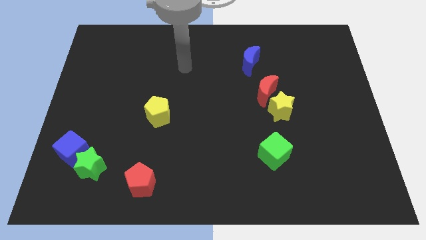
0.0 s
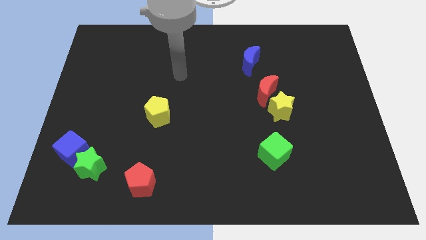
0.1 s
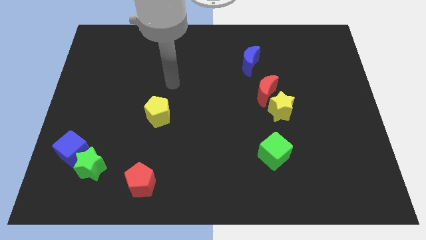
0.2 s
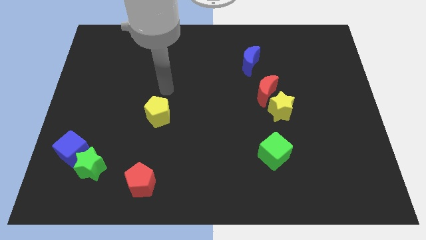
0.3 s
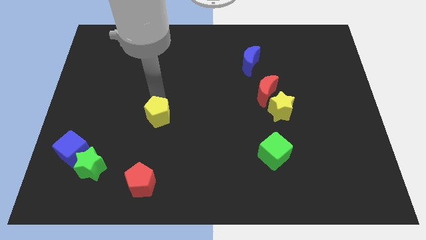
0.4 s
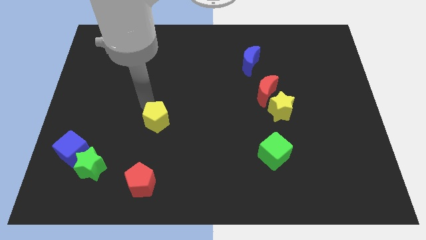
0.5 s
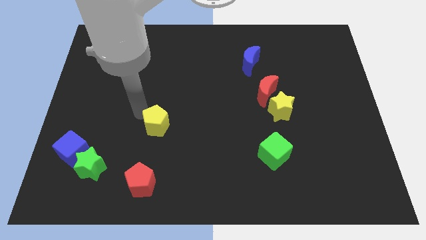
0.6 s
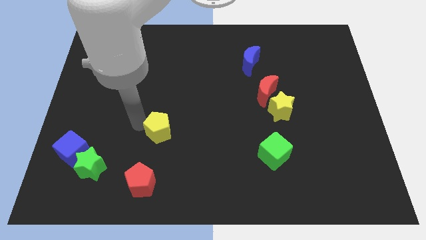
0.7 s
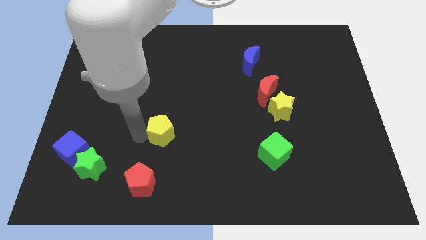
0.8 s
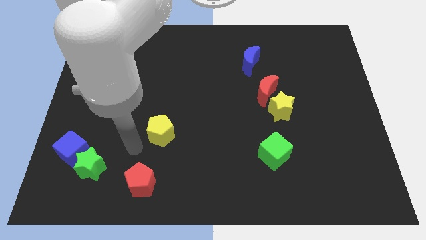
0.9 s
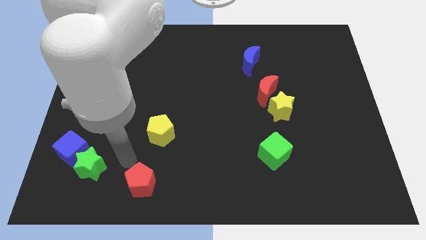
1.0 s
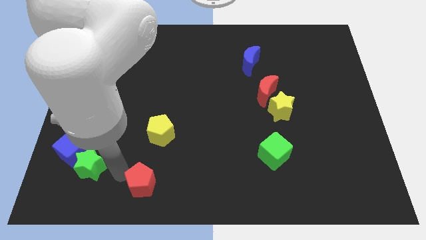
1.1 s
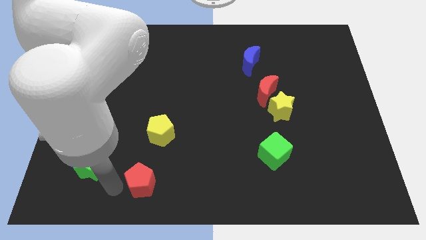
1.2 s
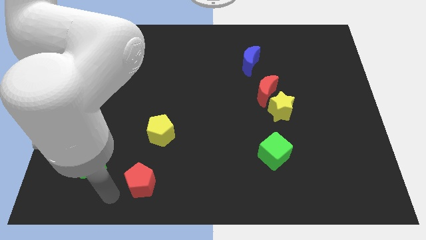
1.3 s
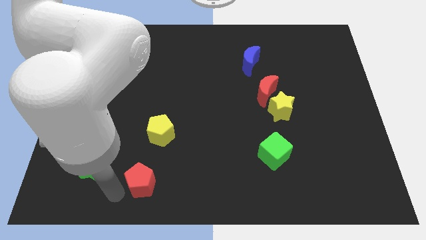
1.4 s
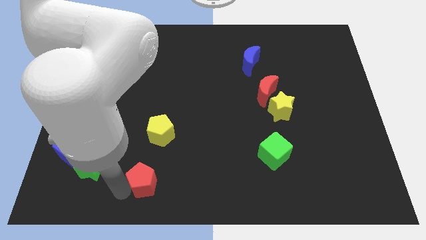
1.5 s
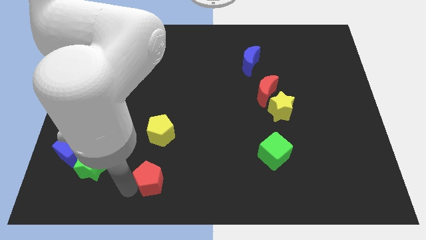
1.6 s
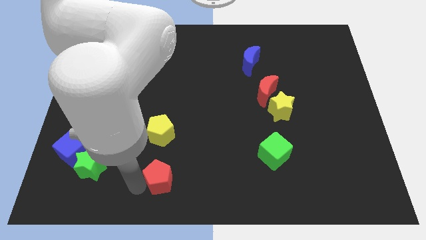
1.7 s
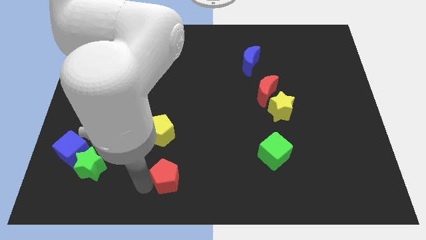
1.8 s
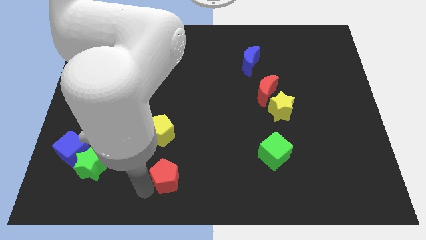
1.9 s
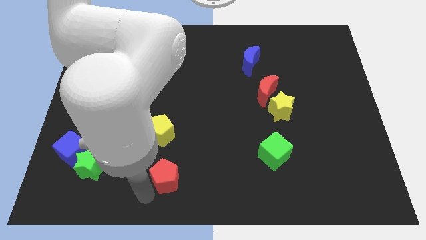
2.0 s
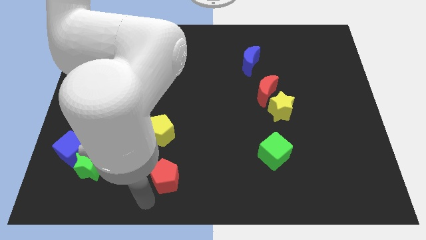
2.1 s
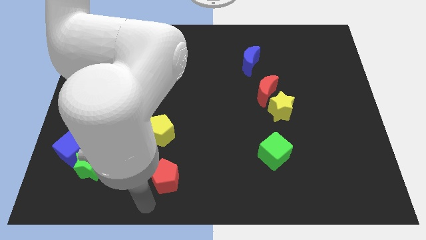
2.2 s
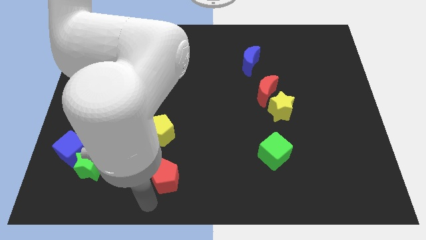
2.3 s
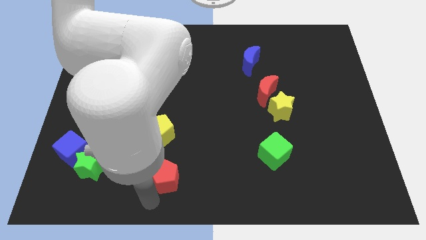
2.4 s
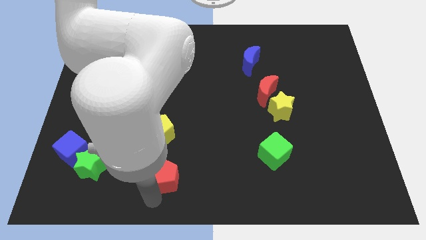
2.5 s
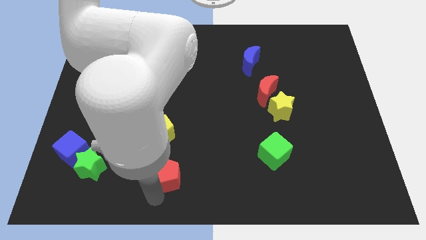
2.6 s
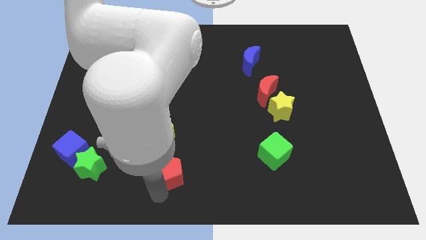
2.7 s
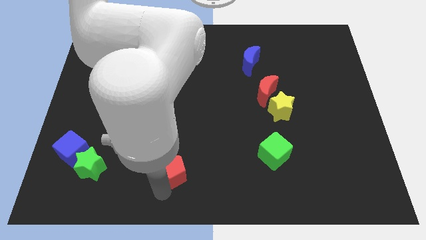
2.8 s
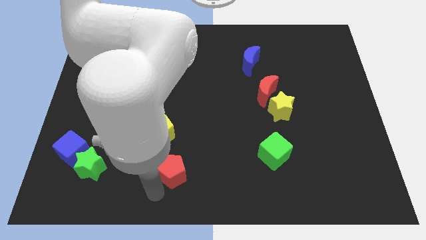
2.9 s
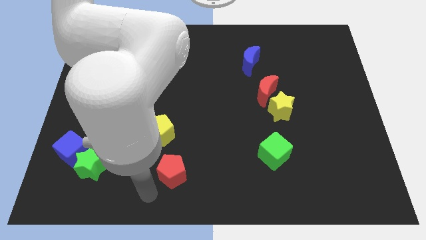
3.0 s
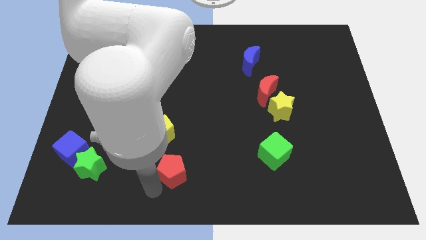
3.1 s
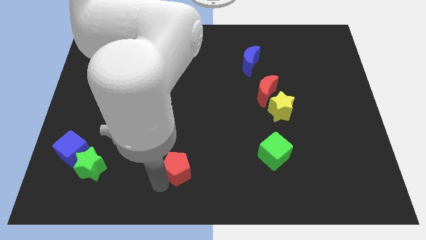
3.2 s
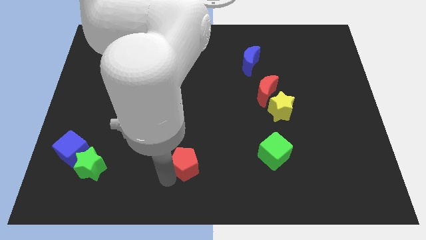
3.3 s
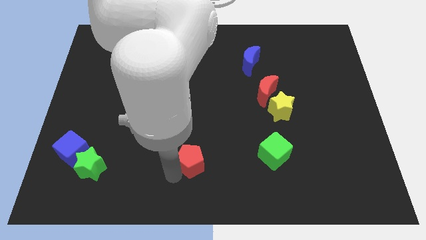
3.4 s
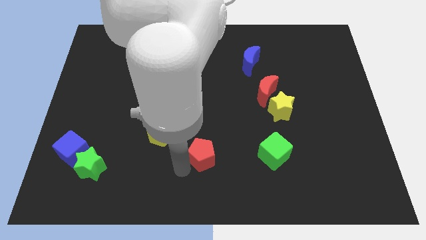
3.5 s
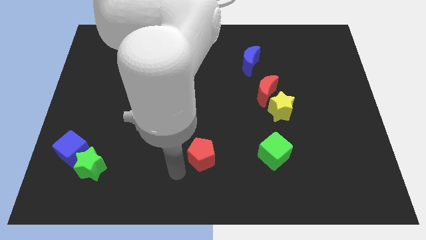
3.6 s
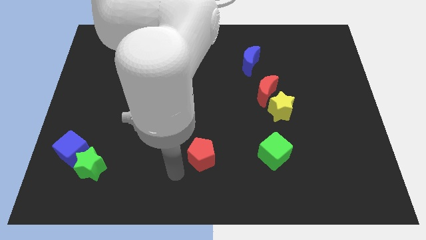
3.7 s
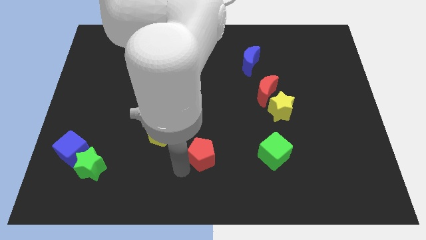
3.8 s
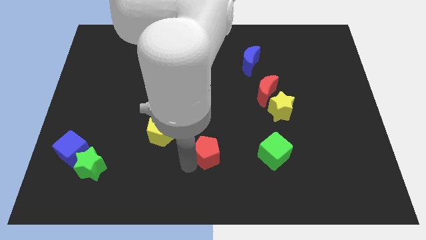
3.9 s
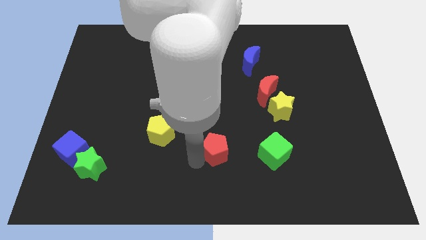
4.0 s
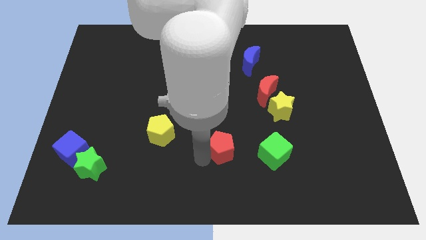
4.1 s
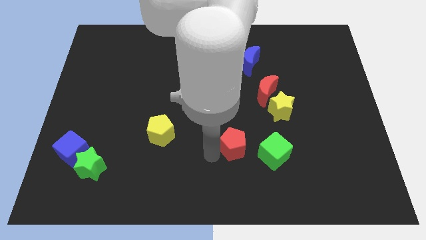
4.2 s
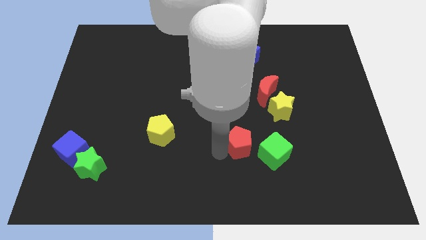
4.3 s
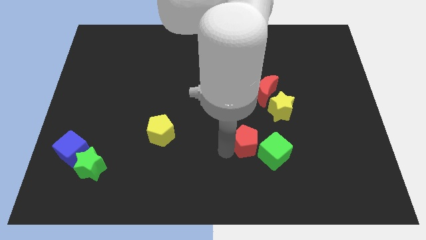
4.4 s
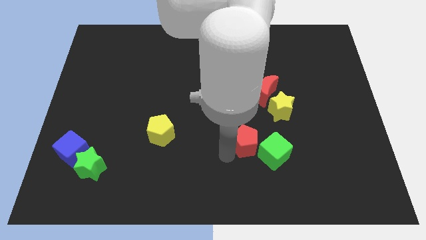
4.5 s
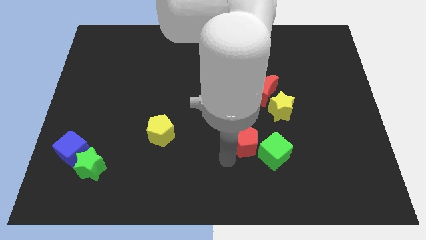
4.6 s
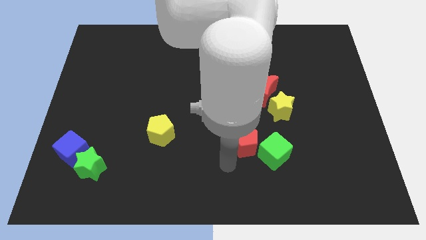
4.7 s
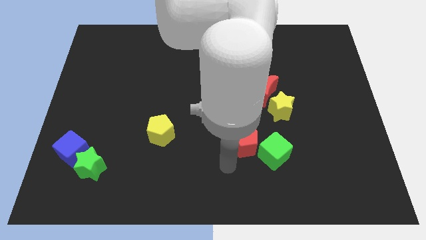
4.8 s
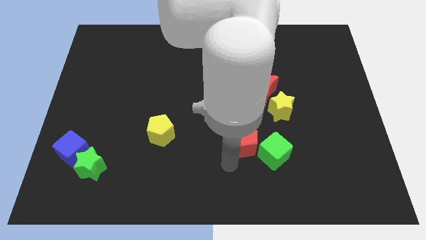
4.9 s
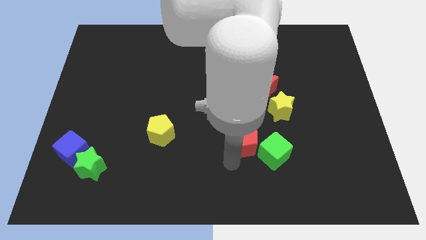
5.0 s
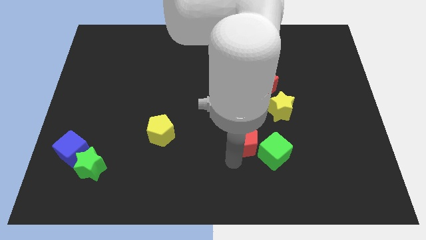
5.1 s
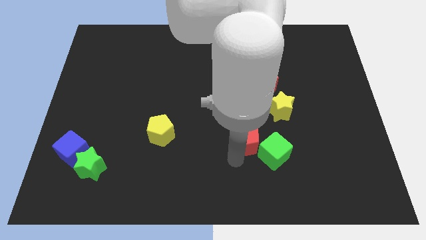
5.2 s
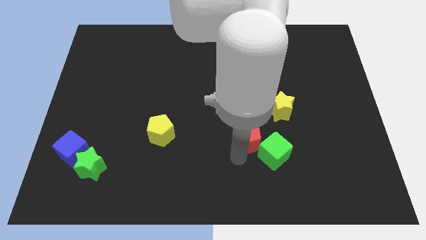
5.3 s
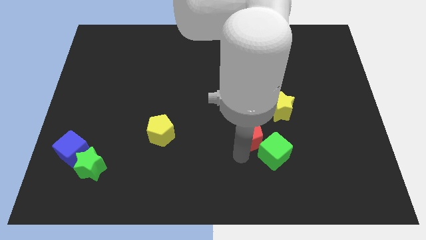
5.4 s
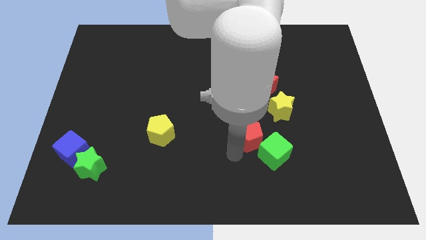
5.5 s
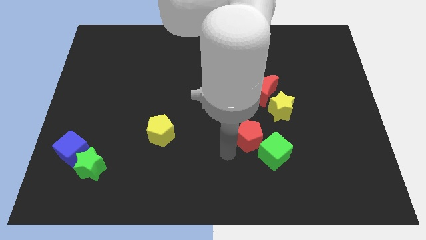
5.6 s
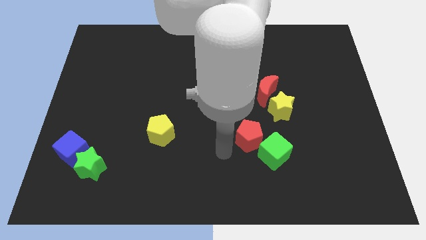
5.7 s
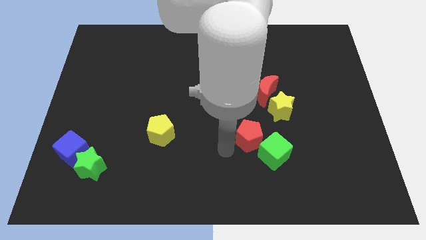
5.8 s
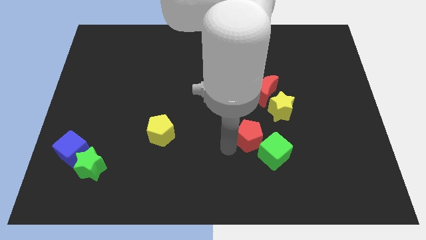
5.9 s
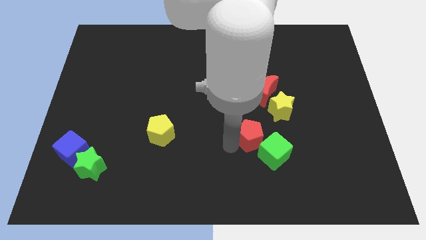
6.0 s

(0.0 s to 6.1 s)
put the red pentagon to the bottom of the red moon

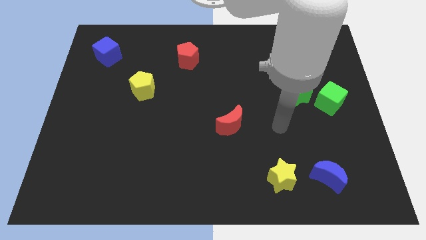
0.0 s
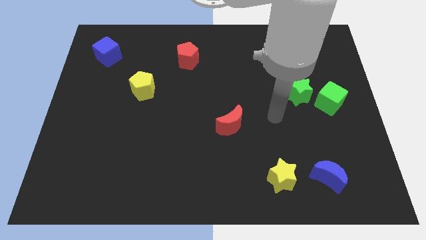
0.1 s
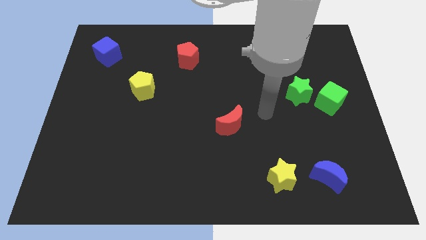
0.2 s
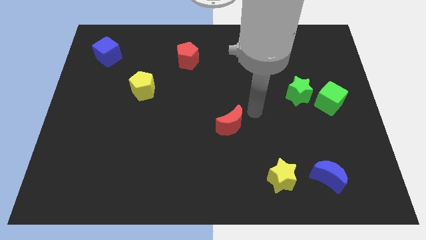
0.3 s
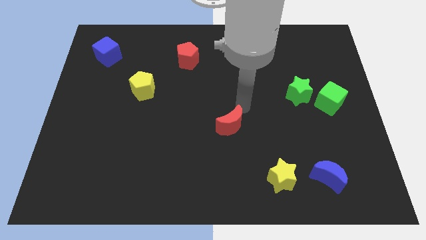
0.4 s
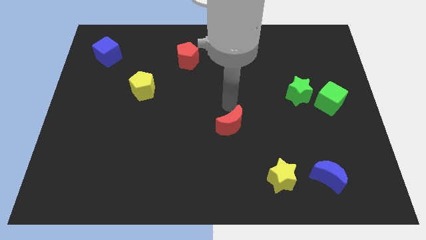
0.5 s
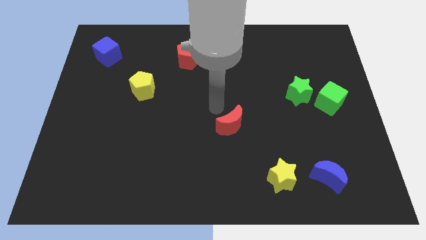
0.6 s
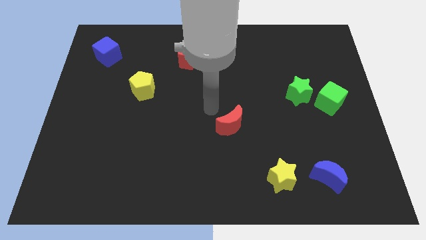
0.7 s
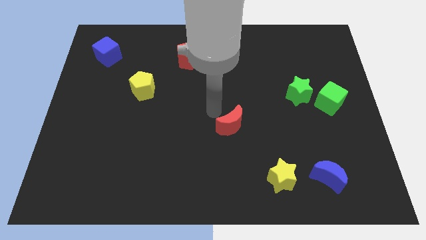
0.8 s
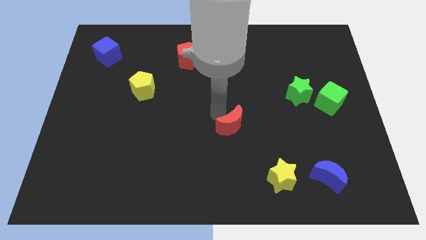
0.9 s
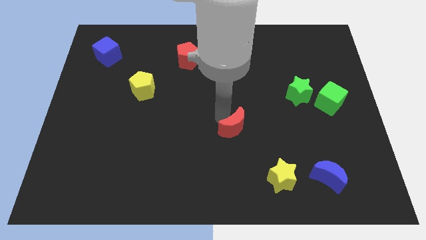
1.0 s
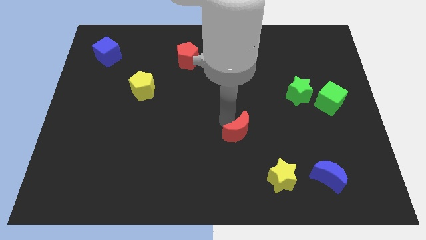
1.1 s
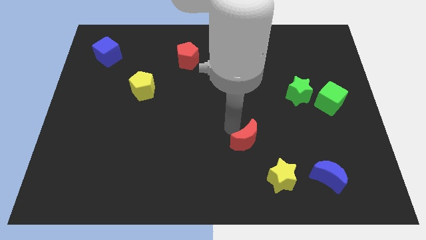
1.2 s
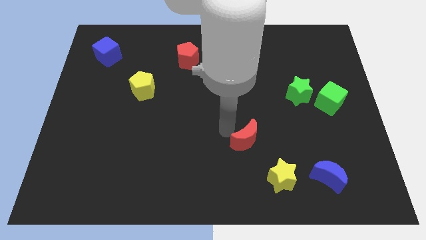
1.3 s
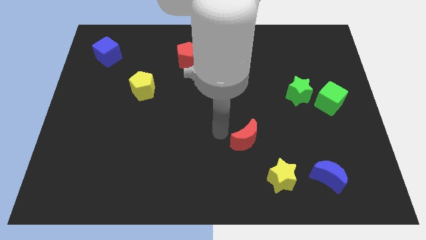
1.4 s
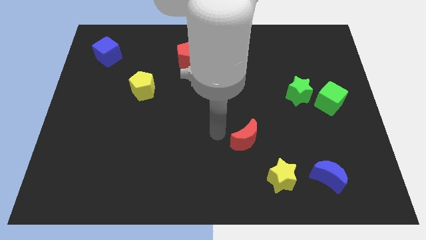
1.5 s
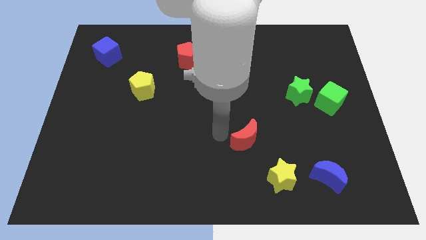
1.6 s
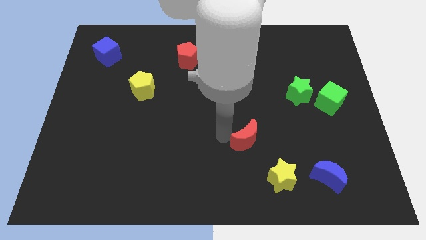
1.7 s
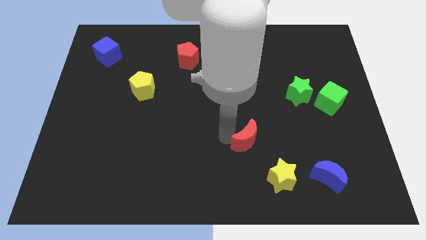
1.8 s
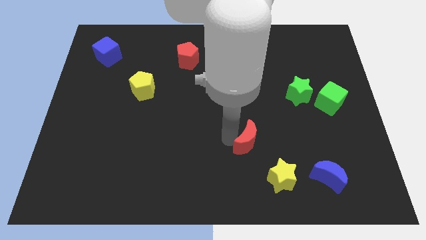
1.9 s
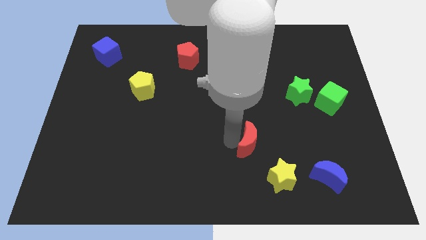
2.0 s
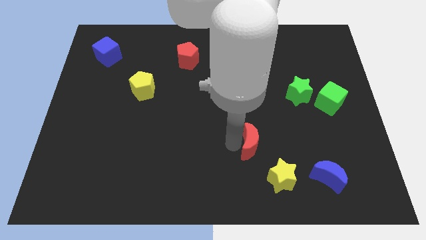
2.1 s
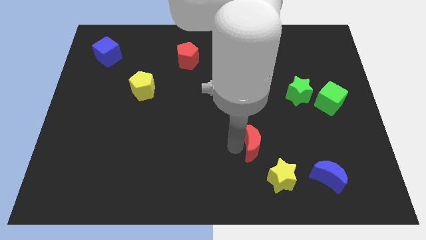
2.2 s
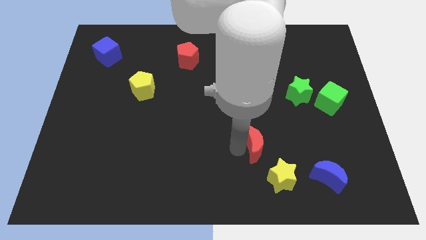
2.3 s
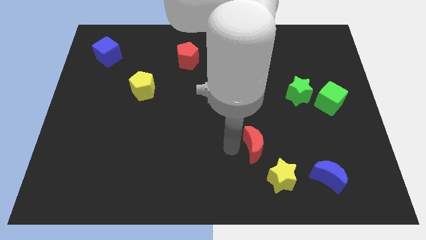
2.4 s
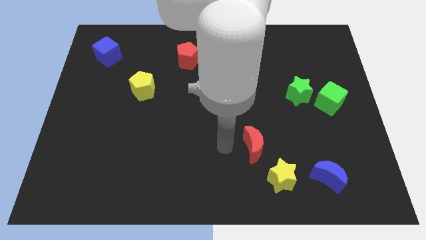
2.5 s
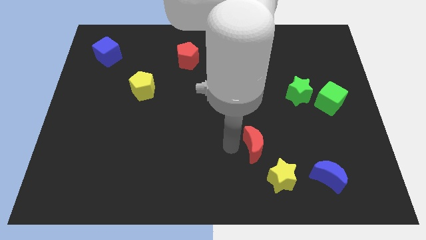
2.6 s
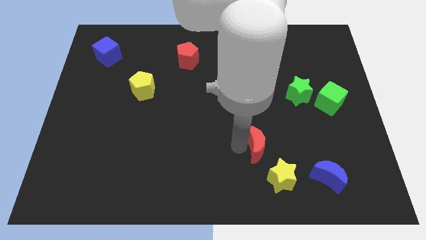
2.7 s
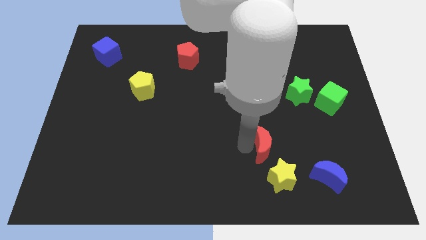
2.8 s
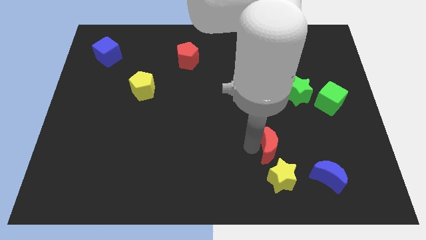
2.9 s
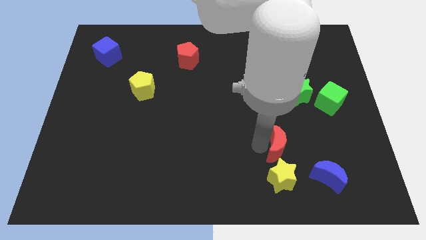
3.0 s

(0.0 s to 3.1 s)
push the red moon to the top left of the blue moon
